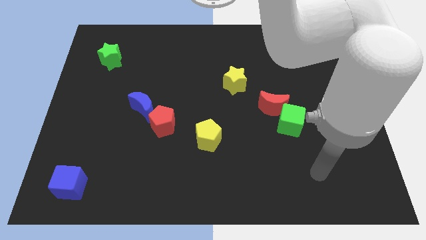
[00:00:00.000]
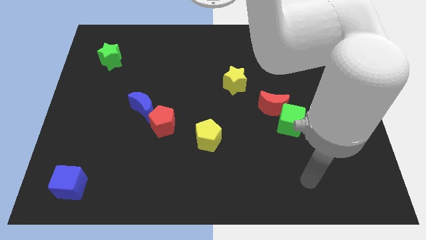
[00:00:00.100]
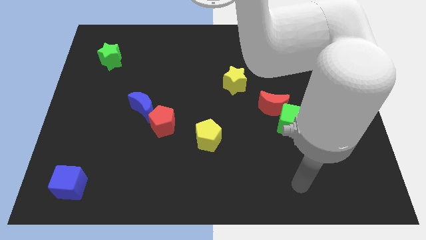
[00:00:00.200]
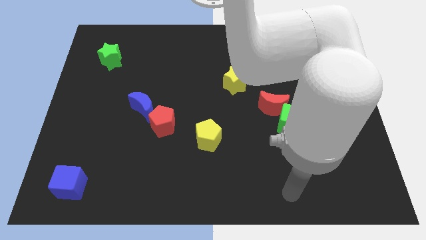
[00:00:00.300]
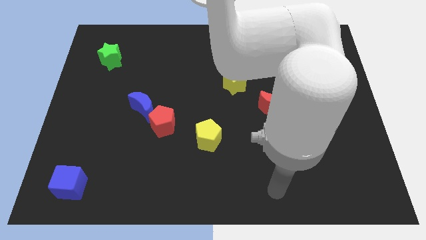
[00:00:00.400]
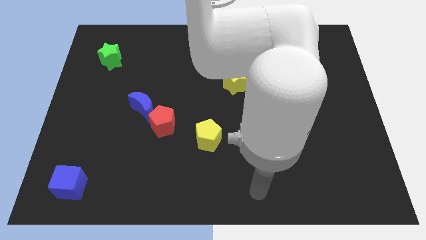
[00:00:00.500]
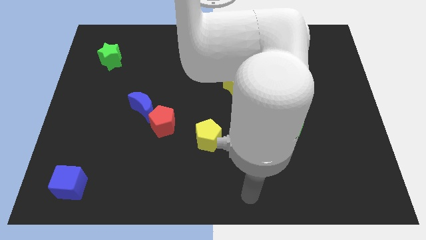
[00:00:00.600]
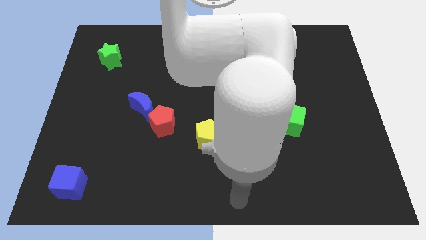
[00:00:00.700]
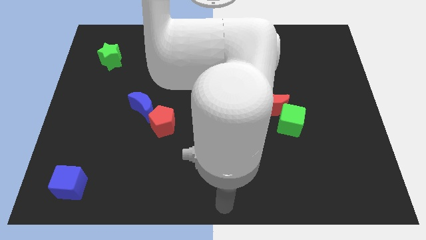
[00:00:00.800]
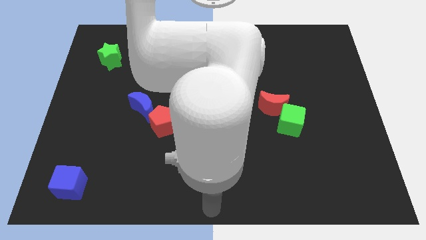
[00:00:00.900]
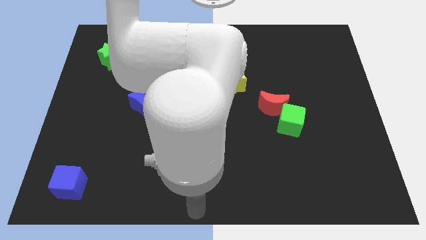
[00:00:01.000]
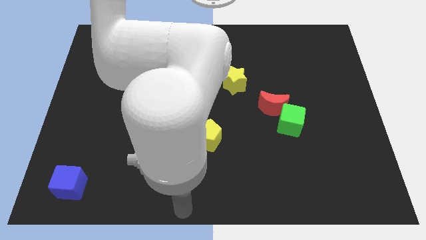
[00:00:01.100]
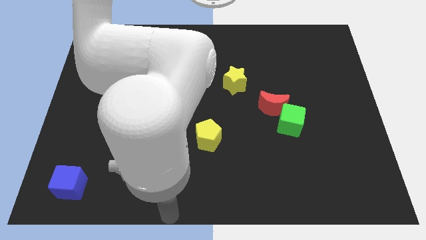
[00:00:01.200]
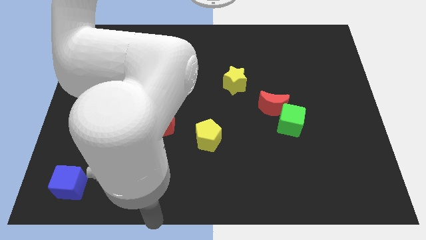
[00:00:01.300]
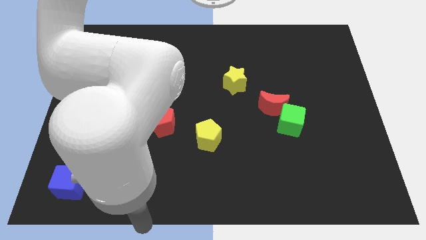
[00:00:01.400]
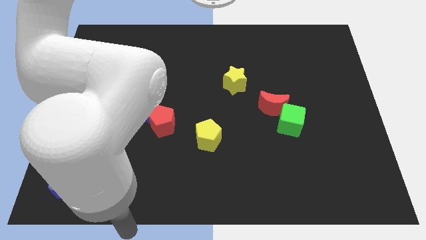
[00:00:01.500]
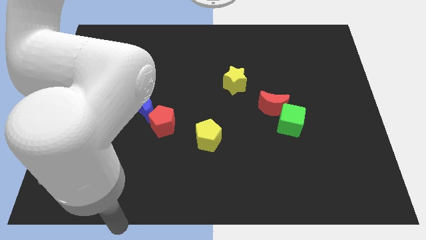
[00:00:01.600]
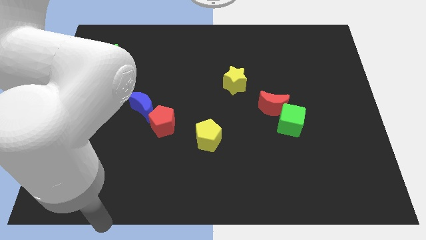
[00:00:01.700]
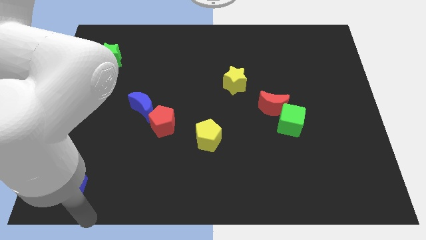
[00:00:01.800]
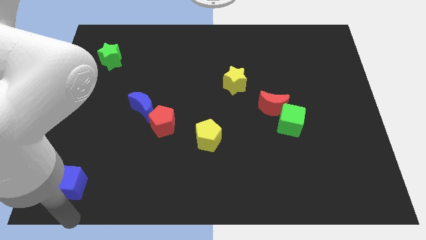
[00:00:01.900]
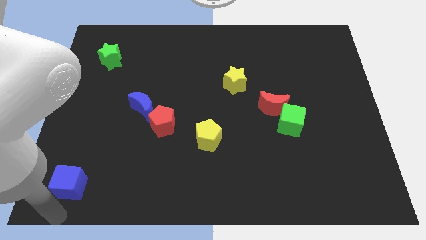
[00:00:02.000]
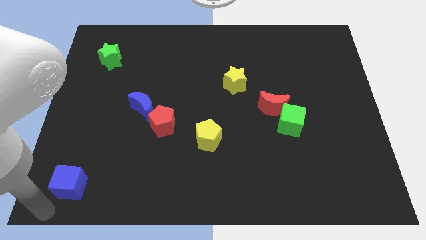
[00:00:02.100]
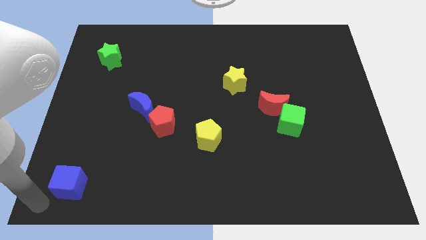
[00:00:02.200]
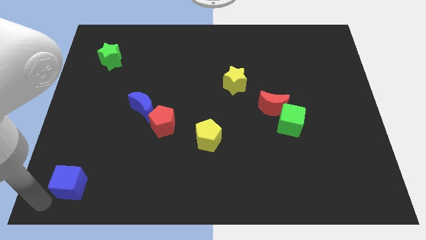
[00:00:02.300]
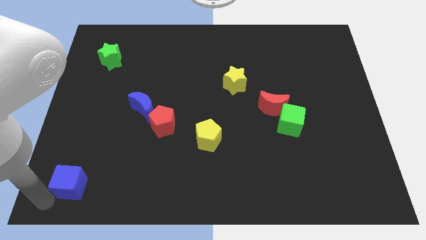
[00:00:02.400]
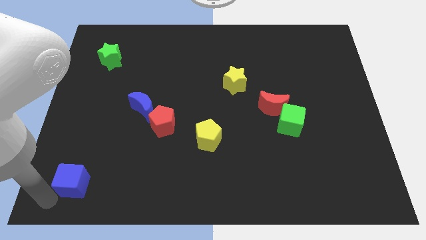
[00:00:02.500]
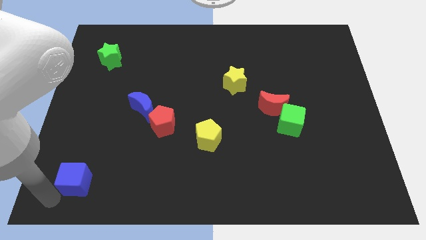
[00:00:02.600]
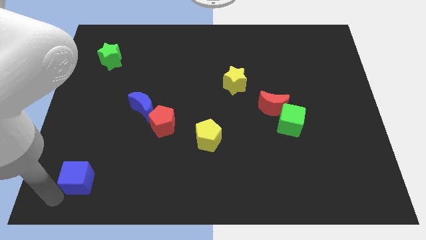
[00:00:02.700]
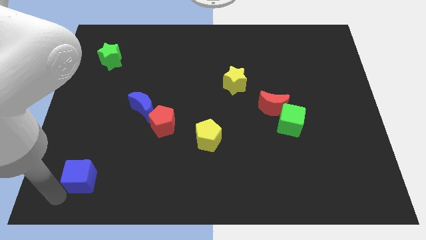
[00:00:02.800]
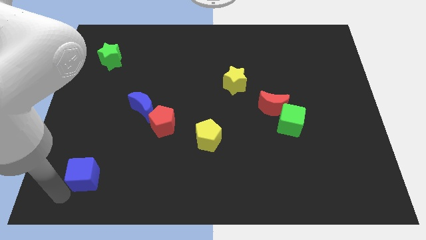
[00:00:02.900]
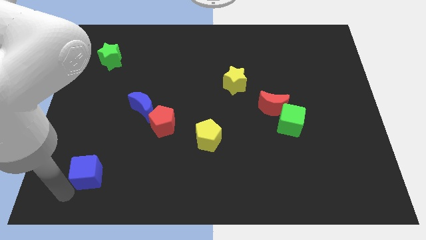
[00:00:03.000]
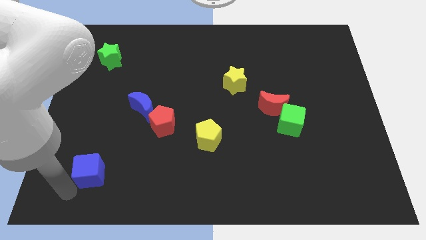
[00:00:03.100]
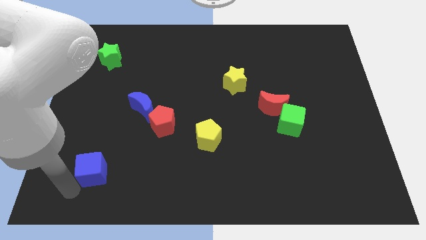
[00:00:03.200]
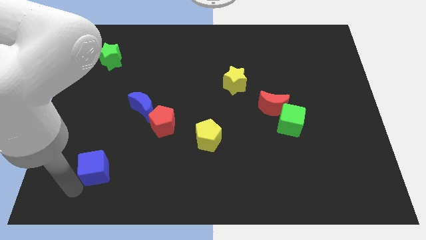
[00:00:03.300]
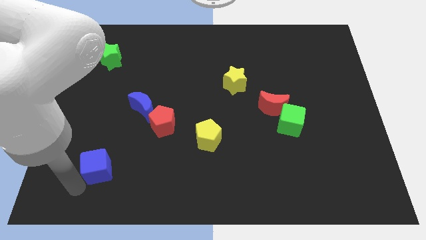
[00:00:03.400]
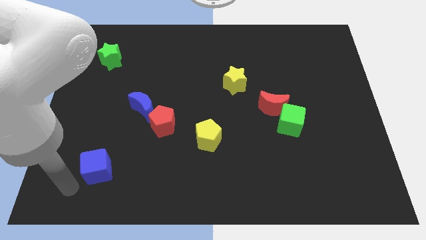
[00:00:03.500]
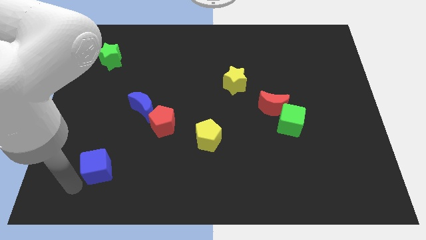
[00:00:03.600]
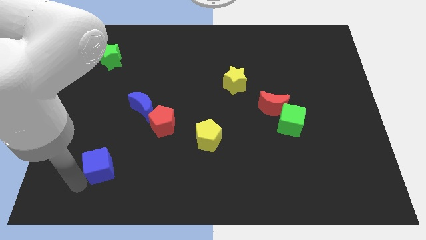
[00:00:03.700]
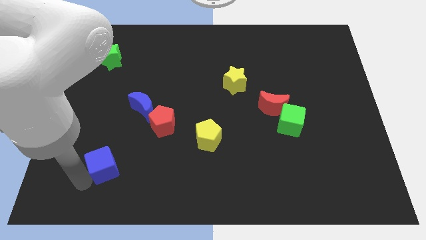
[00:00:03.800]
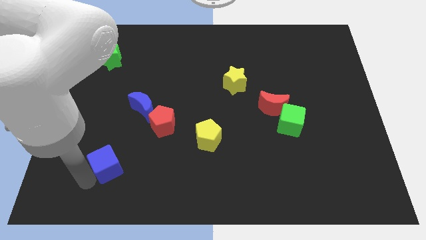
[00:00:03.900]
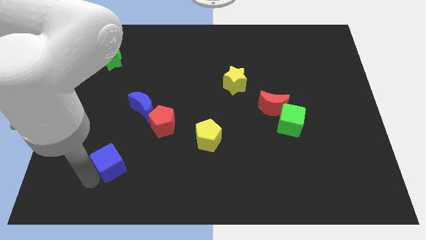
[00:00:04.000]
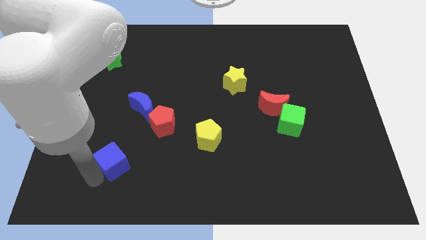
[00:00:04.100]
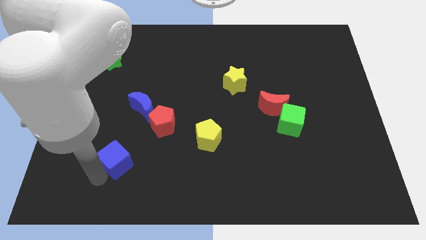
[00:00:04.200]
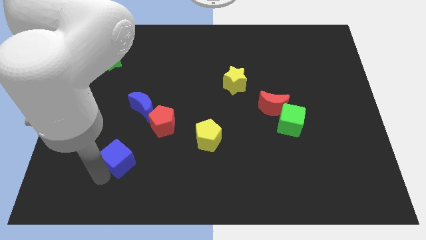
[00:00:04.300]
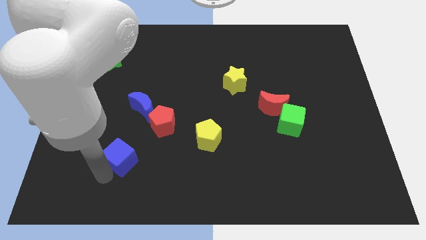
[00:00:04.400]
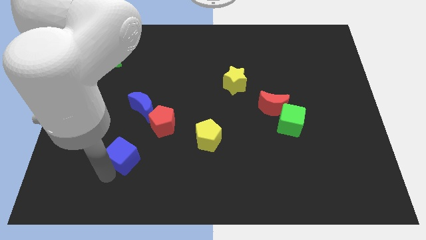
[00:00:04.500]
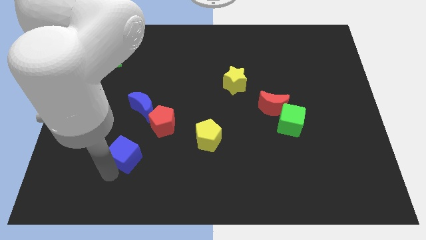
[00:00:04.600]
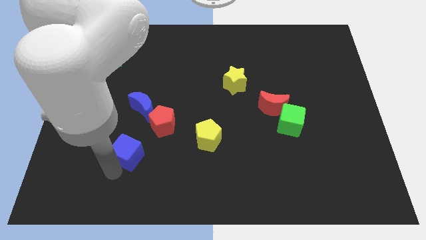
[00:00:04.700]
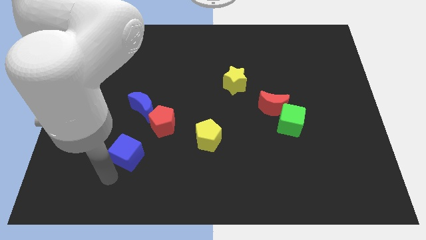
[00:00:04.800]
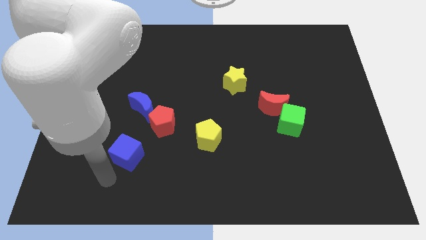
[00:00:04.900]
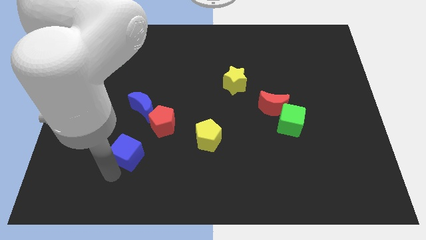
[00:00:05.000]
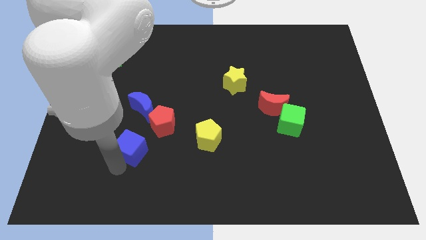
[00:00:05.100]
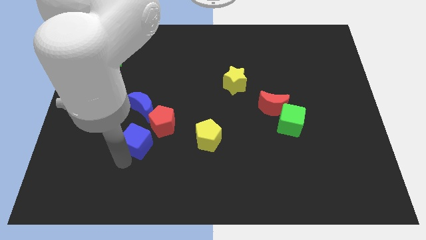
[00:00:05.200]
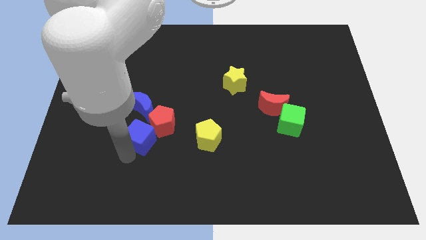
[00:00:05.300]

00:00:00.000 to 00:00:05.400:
slide the blue cube next to the red pentagon

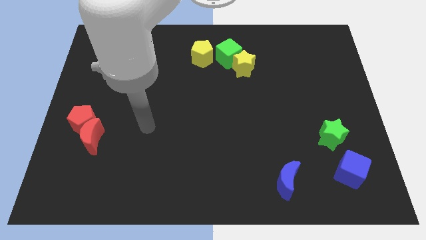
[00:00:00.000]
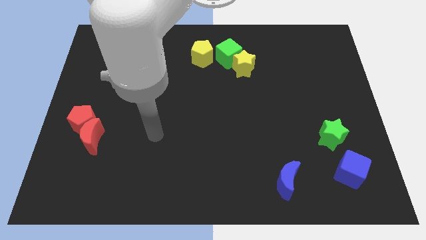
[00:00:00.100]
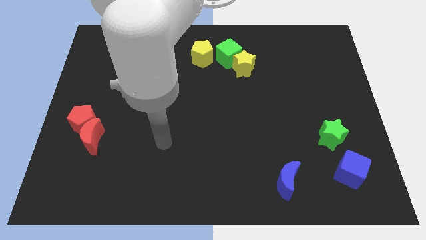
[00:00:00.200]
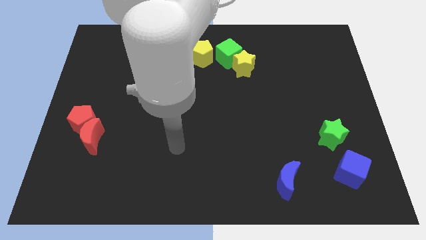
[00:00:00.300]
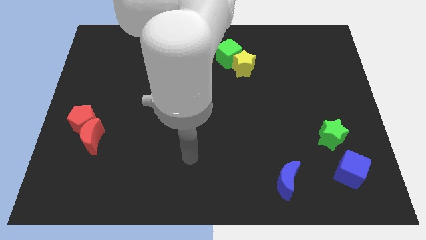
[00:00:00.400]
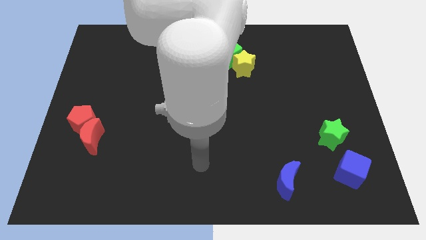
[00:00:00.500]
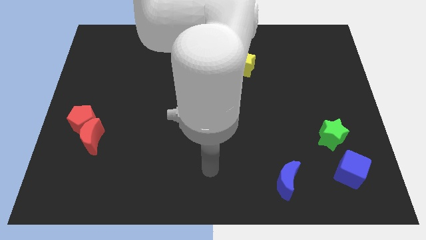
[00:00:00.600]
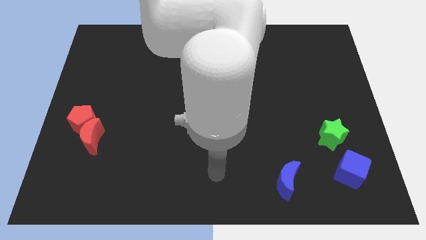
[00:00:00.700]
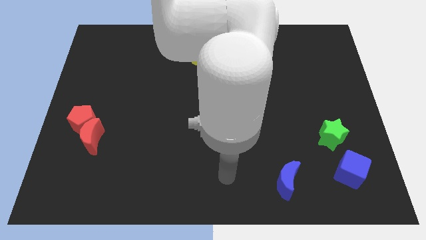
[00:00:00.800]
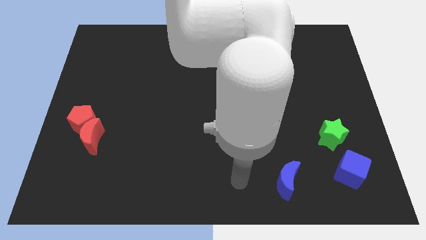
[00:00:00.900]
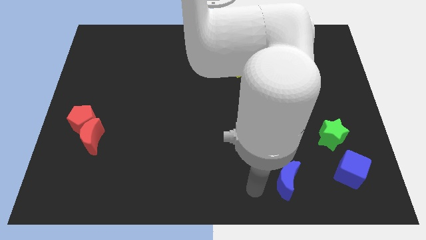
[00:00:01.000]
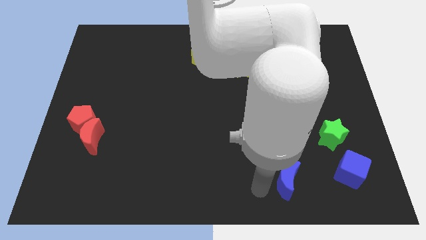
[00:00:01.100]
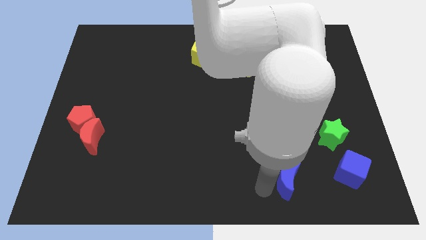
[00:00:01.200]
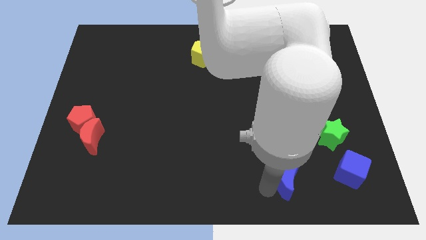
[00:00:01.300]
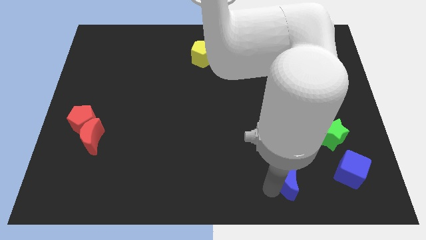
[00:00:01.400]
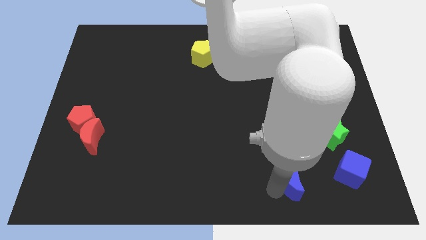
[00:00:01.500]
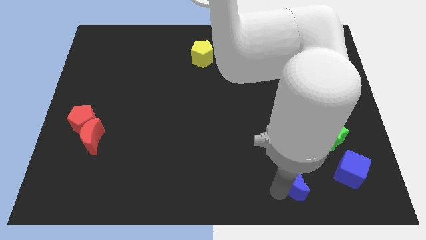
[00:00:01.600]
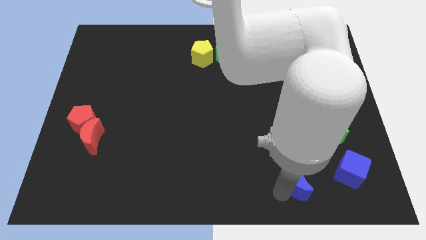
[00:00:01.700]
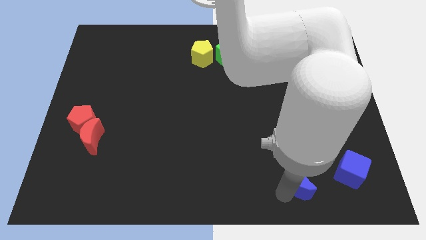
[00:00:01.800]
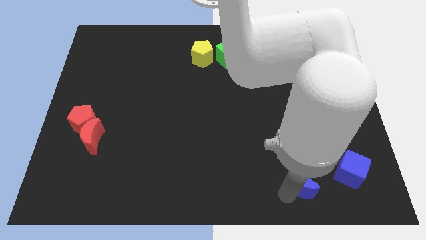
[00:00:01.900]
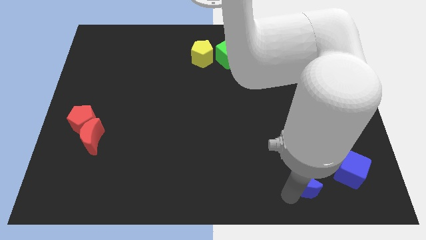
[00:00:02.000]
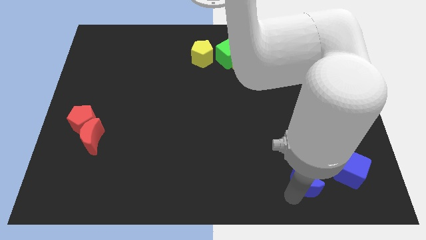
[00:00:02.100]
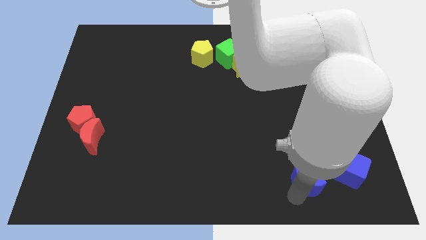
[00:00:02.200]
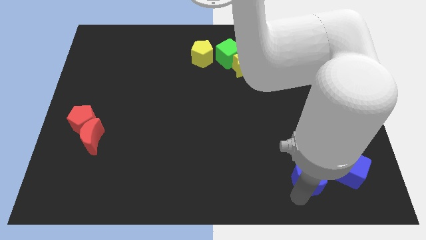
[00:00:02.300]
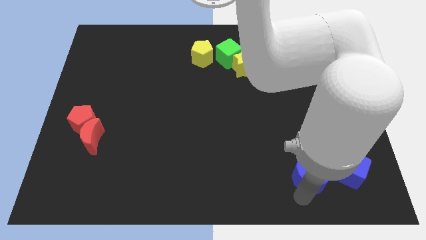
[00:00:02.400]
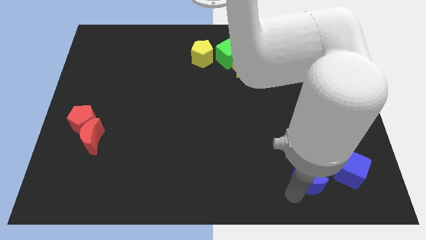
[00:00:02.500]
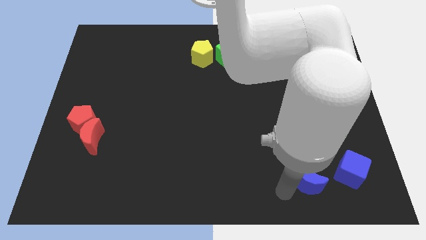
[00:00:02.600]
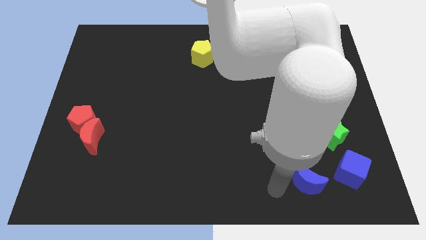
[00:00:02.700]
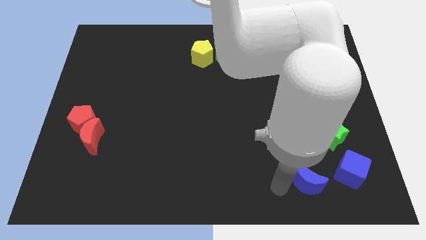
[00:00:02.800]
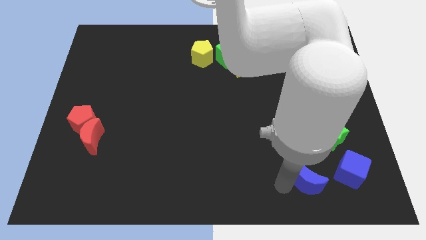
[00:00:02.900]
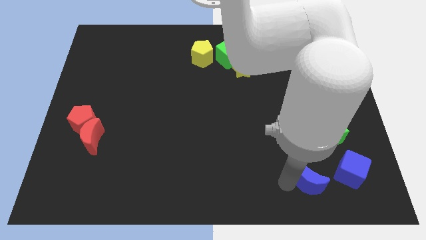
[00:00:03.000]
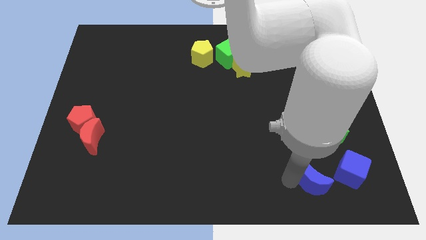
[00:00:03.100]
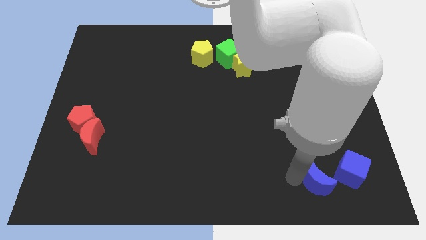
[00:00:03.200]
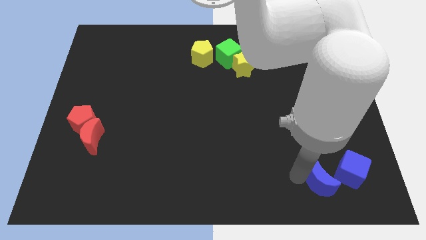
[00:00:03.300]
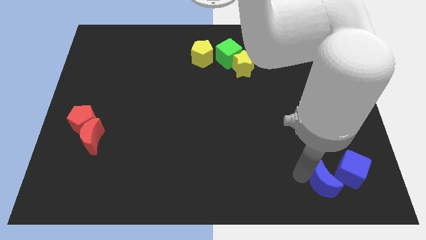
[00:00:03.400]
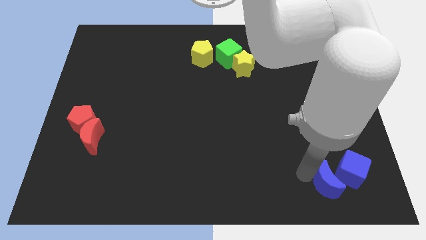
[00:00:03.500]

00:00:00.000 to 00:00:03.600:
push the blue moon next to the blue cube
